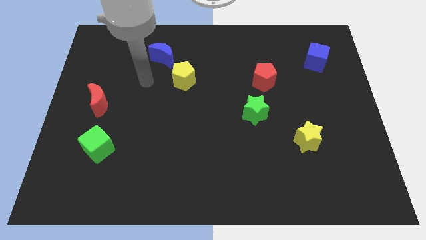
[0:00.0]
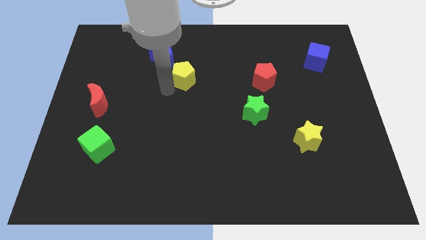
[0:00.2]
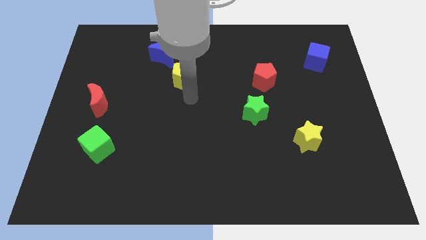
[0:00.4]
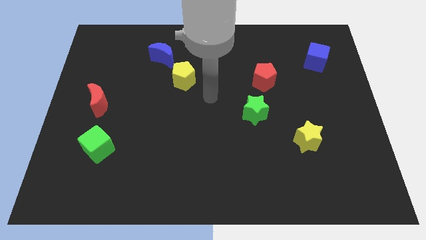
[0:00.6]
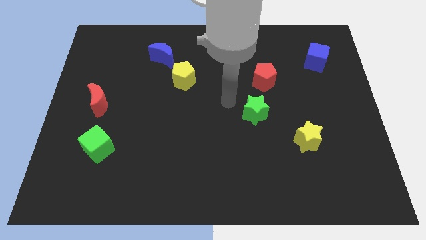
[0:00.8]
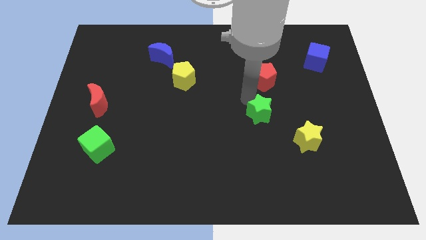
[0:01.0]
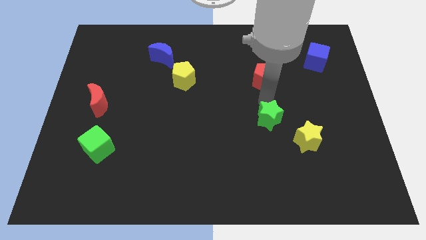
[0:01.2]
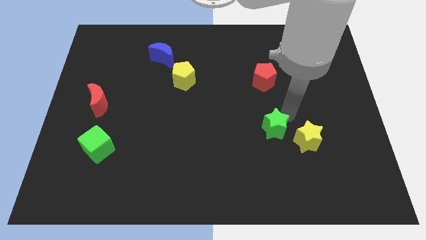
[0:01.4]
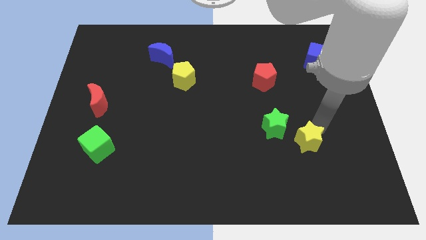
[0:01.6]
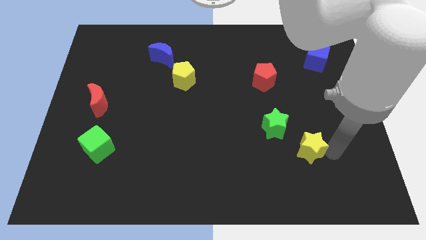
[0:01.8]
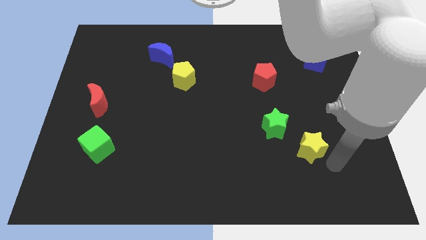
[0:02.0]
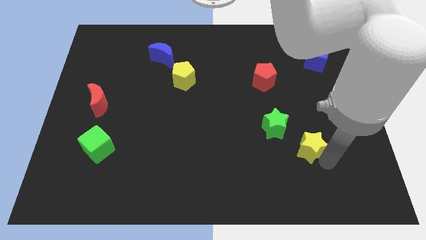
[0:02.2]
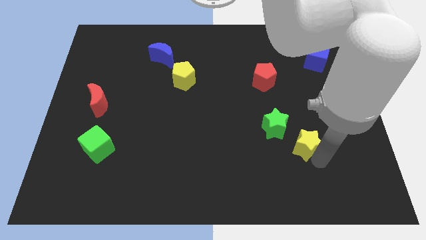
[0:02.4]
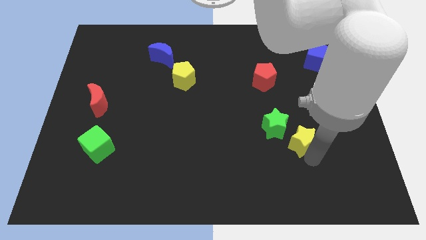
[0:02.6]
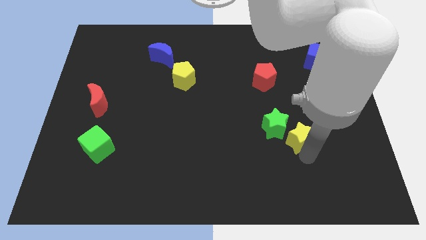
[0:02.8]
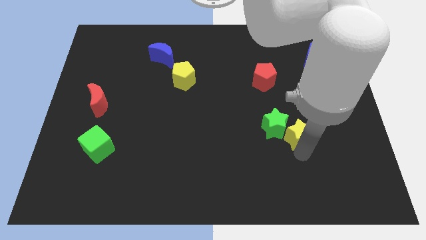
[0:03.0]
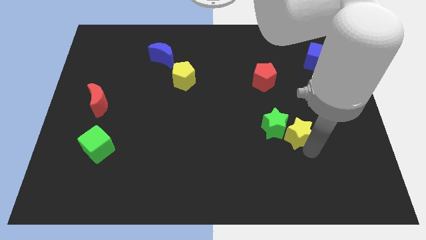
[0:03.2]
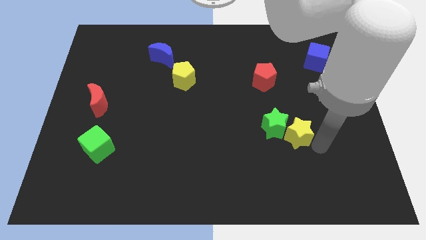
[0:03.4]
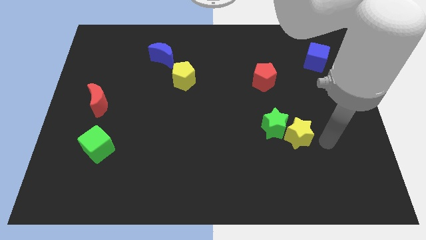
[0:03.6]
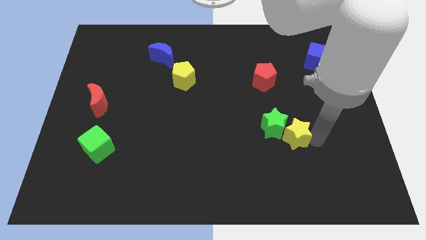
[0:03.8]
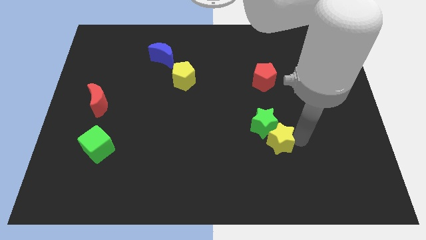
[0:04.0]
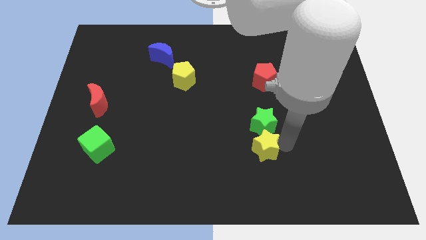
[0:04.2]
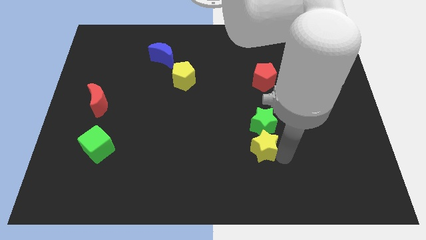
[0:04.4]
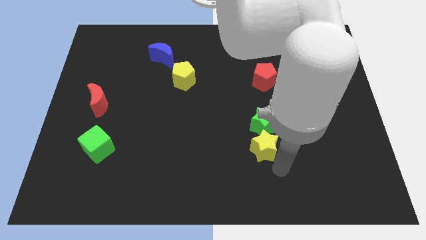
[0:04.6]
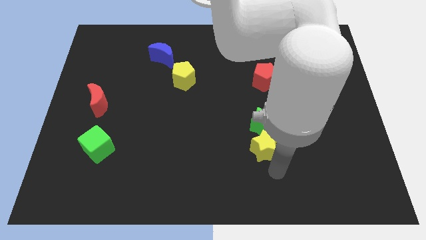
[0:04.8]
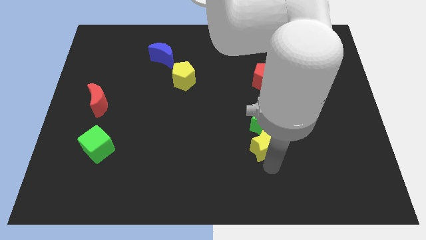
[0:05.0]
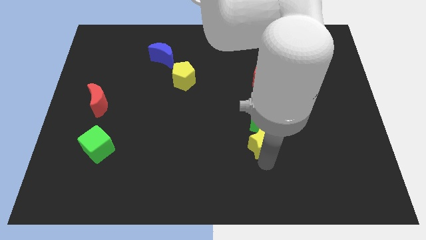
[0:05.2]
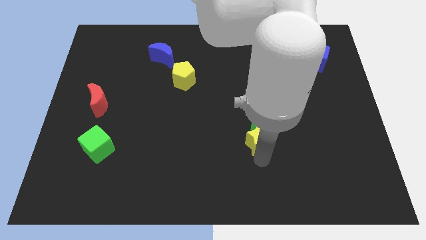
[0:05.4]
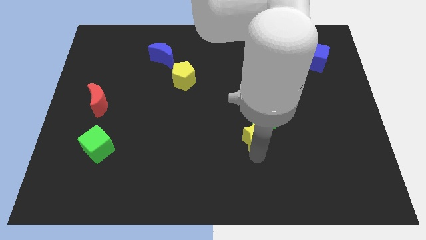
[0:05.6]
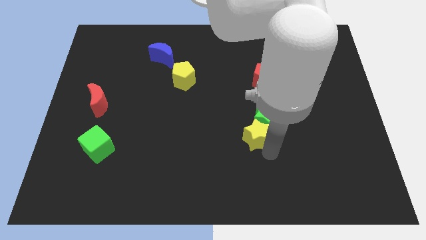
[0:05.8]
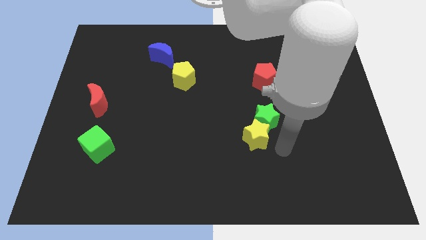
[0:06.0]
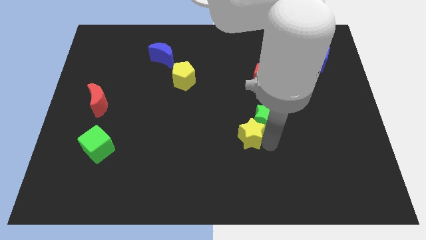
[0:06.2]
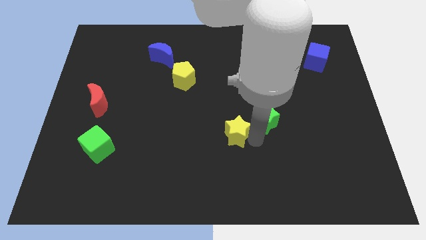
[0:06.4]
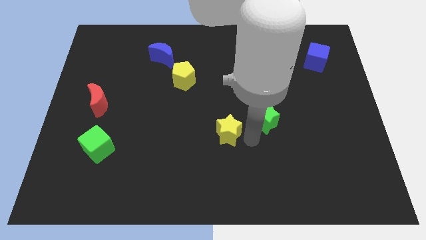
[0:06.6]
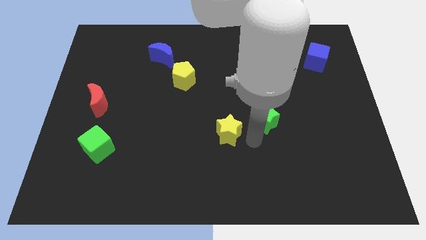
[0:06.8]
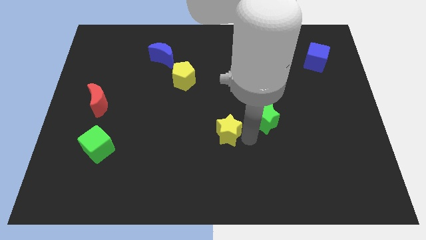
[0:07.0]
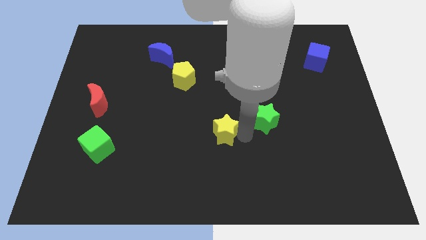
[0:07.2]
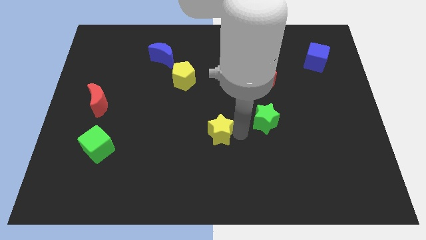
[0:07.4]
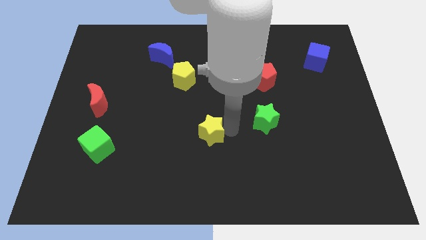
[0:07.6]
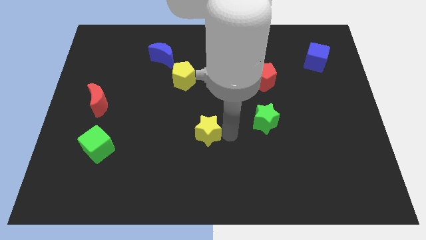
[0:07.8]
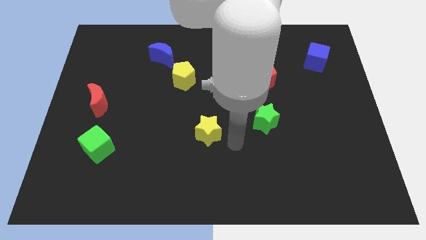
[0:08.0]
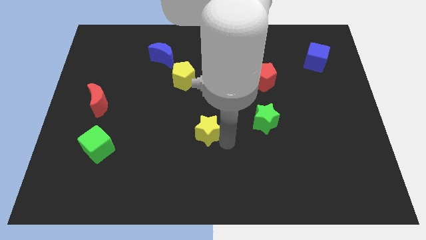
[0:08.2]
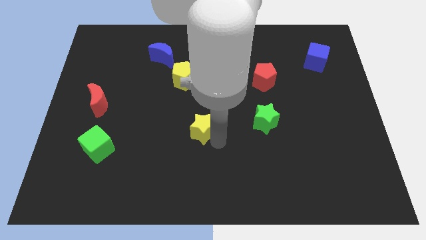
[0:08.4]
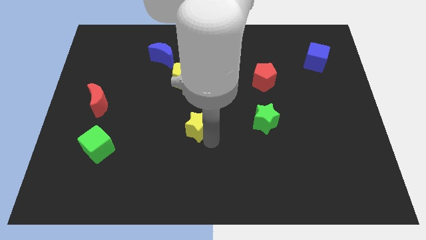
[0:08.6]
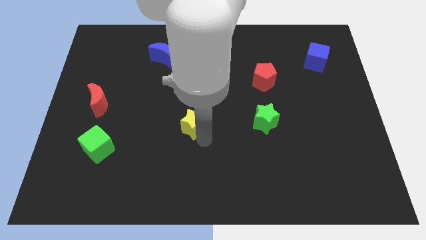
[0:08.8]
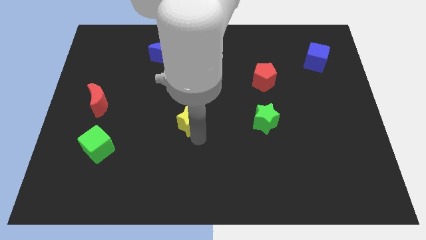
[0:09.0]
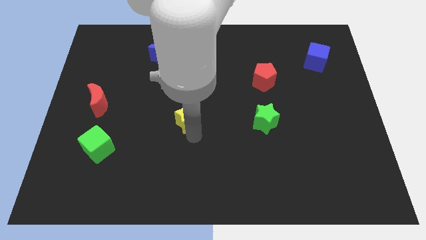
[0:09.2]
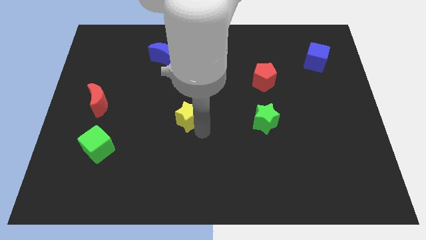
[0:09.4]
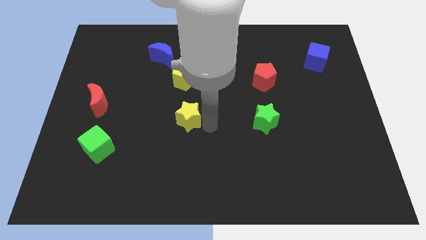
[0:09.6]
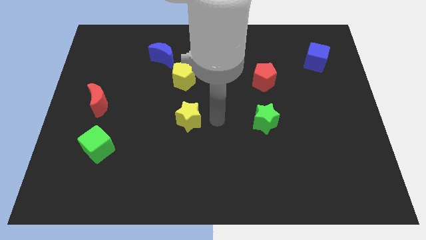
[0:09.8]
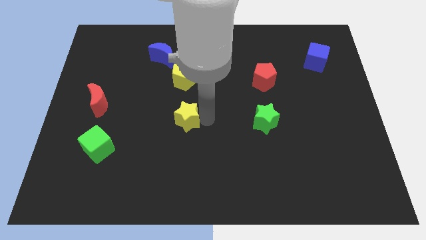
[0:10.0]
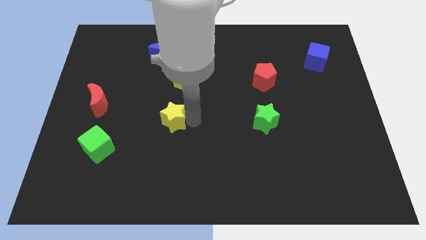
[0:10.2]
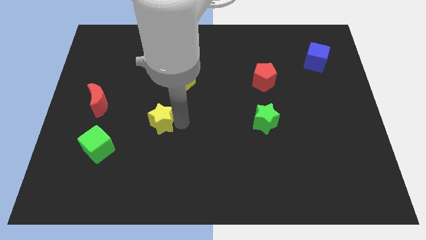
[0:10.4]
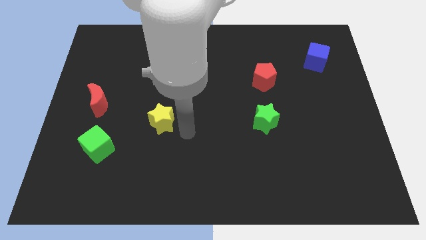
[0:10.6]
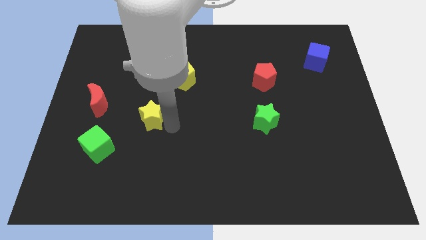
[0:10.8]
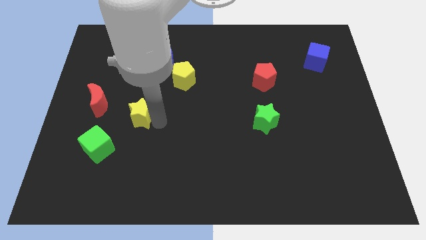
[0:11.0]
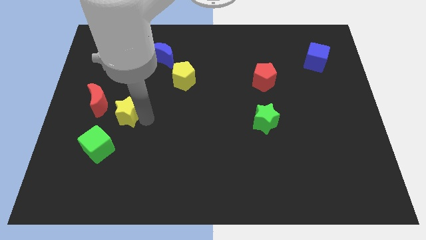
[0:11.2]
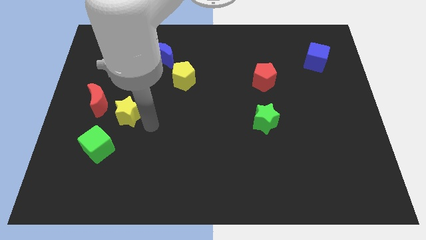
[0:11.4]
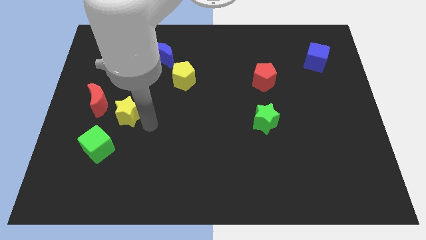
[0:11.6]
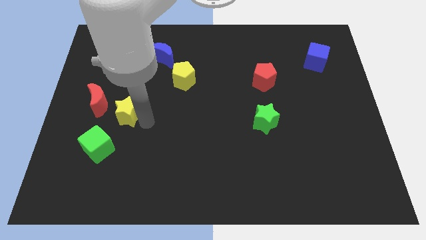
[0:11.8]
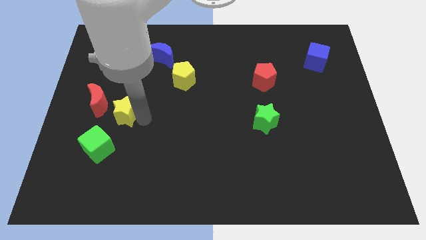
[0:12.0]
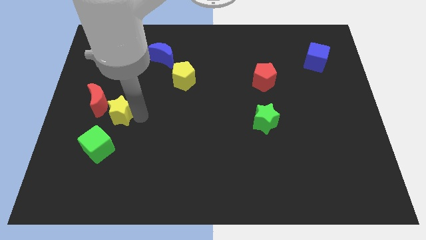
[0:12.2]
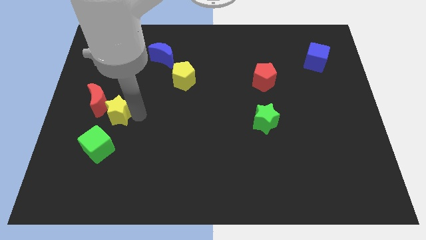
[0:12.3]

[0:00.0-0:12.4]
move the yellow star next to the red moon

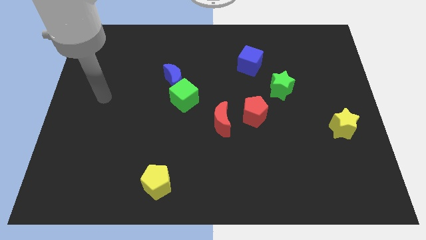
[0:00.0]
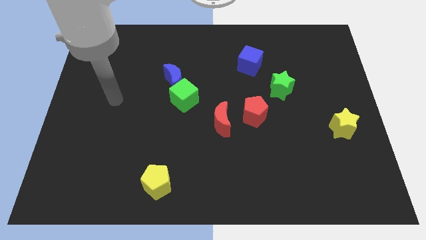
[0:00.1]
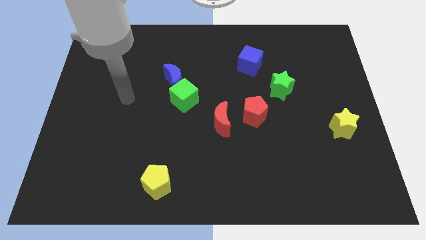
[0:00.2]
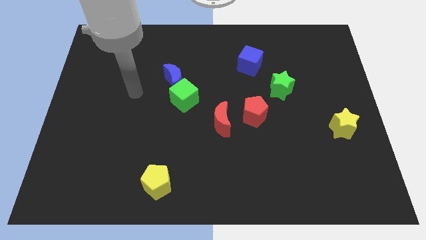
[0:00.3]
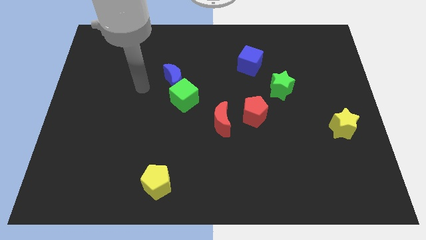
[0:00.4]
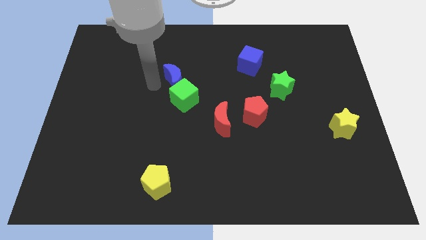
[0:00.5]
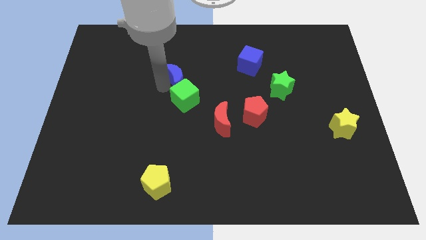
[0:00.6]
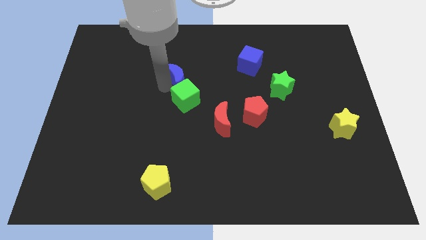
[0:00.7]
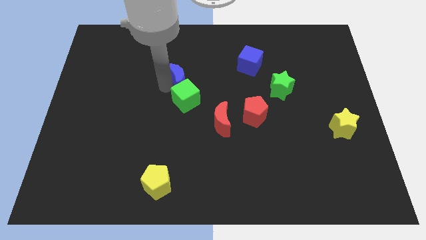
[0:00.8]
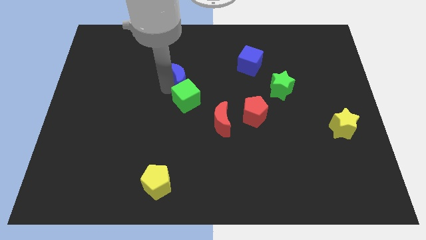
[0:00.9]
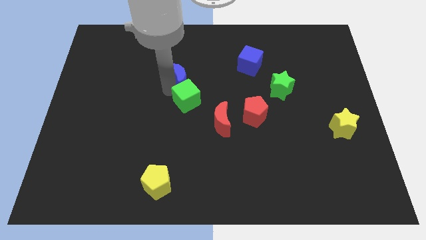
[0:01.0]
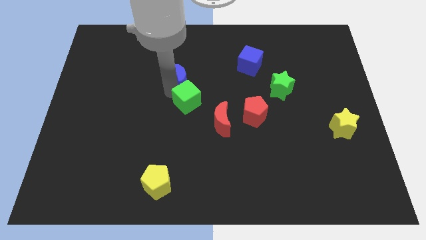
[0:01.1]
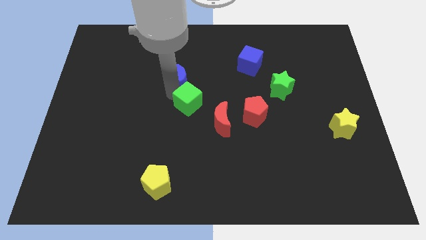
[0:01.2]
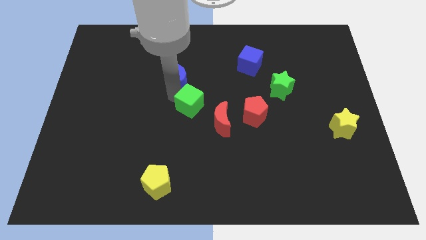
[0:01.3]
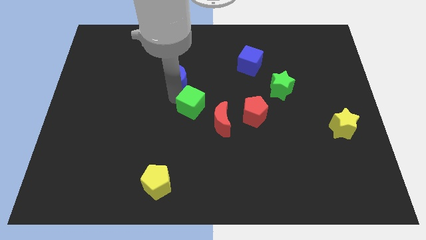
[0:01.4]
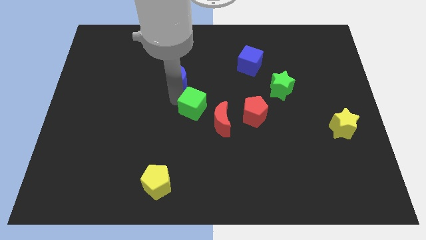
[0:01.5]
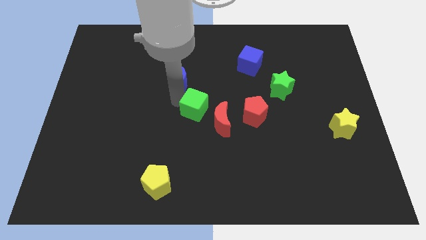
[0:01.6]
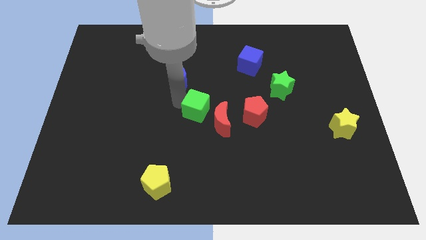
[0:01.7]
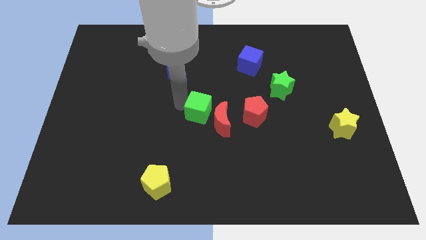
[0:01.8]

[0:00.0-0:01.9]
push the green cube towards the red moon
